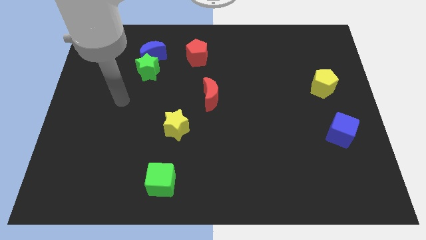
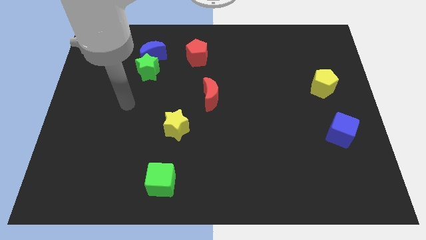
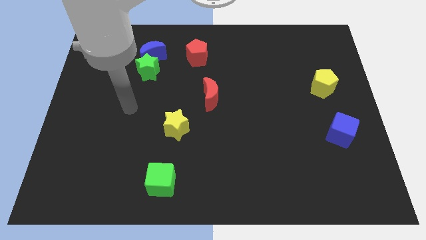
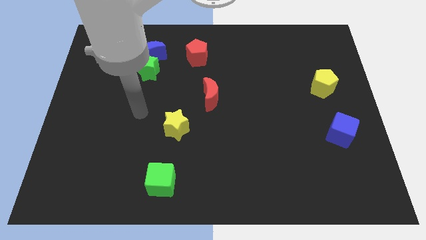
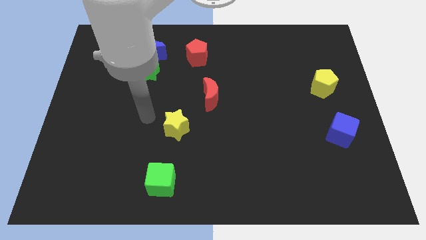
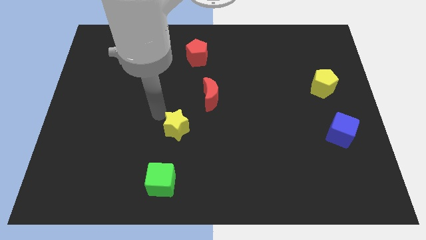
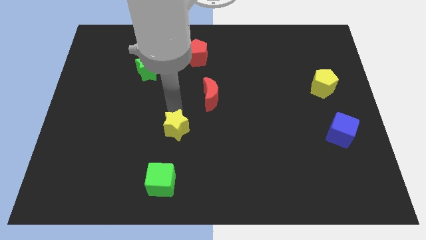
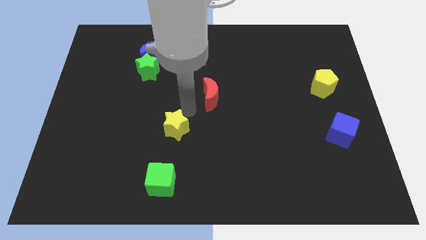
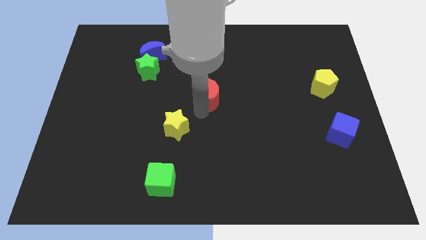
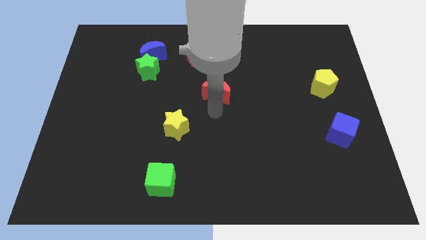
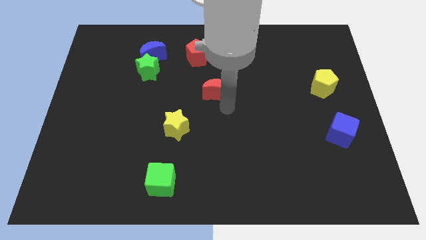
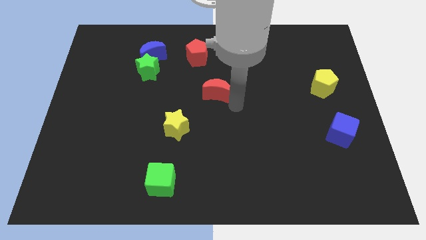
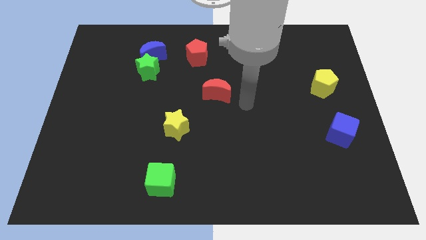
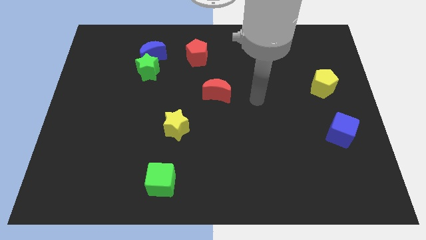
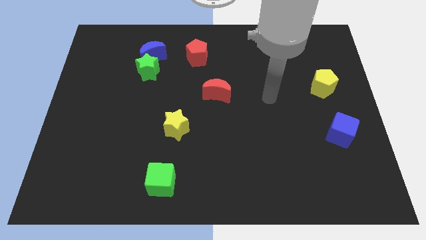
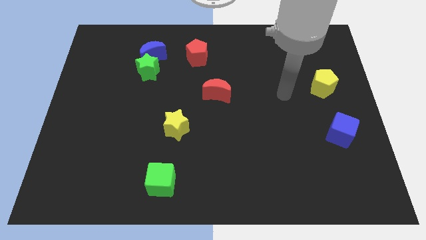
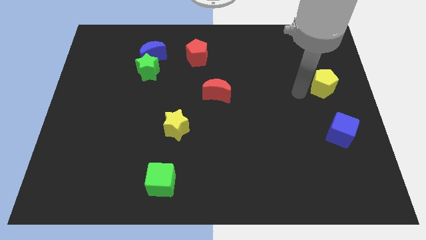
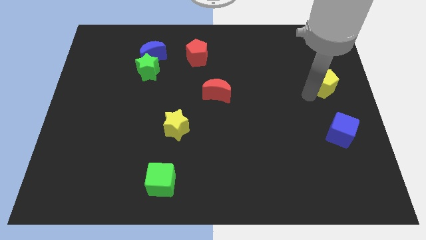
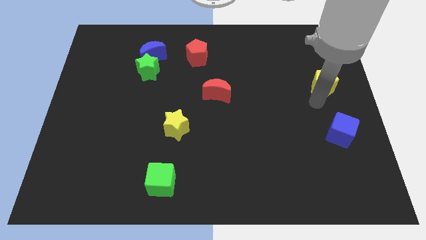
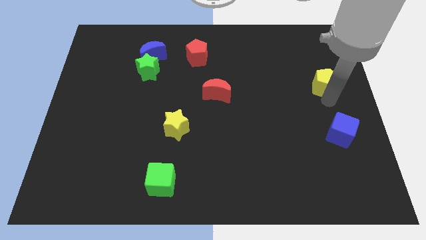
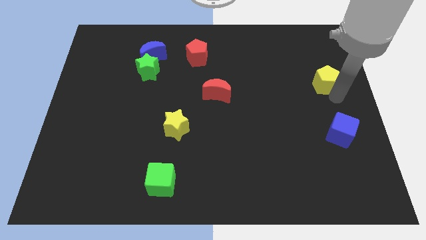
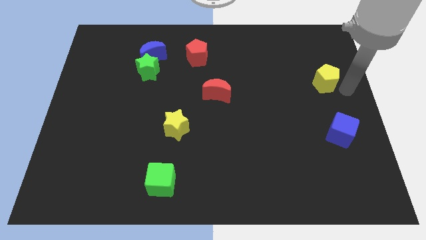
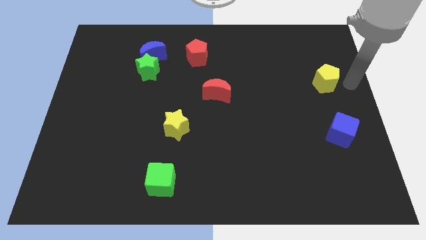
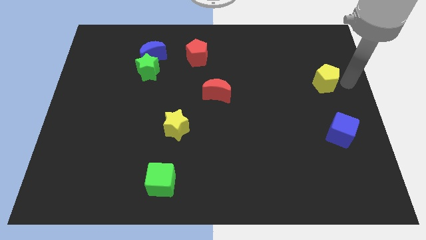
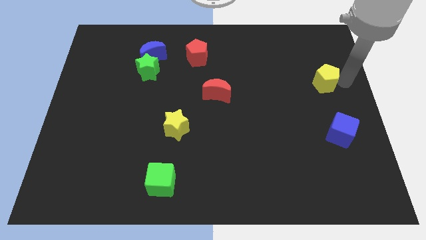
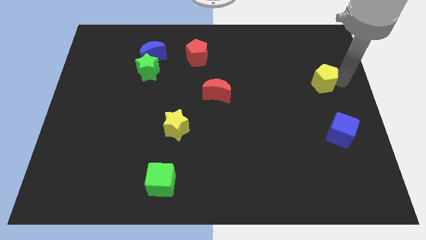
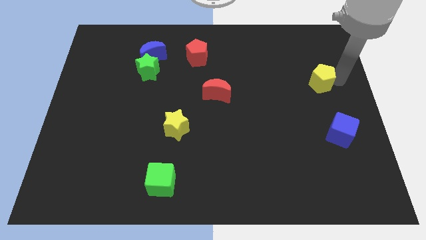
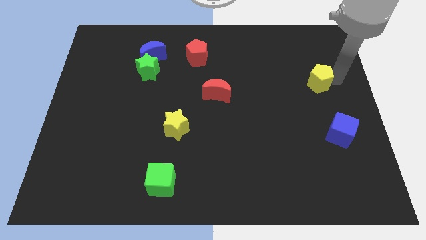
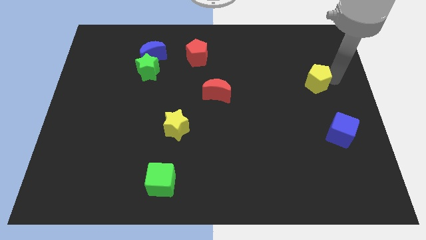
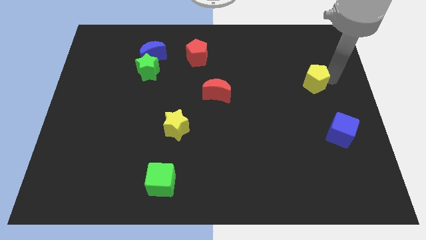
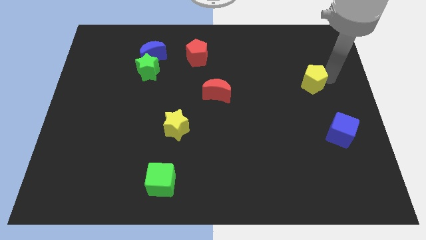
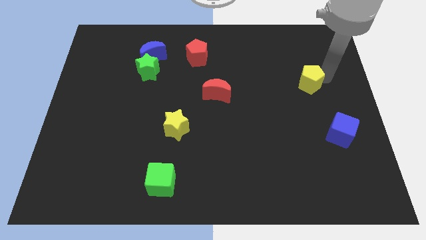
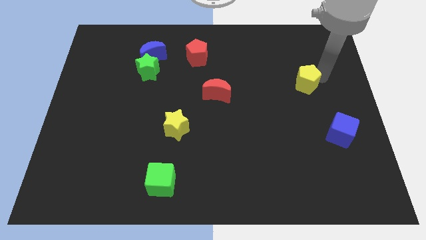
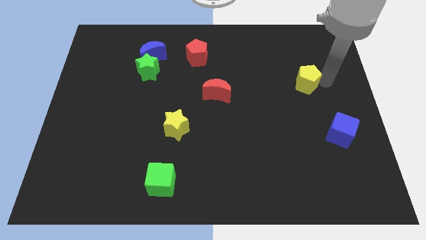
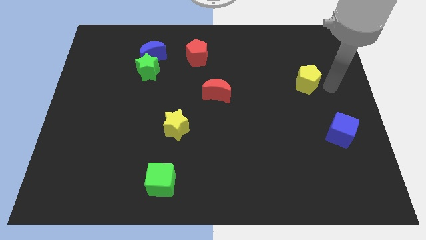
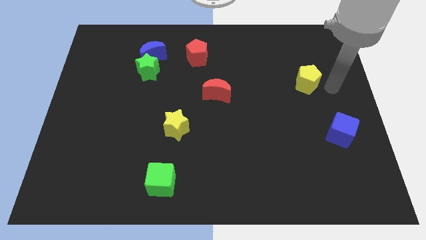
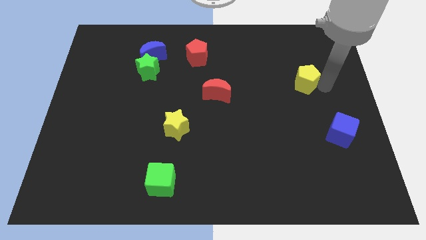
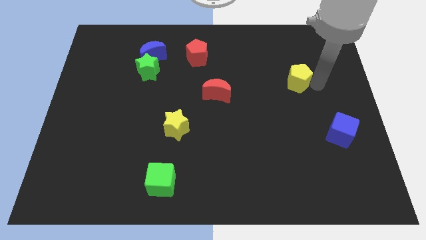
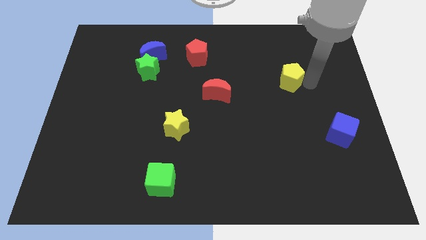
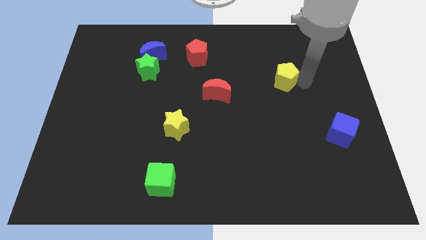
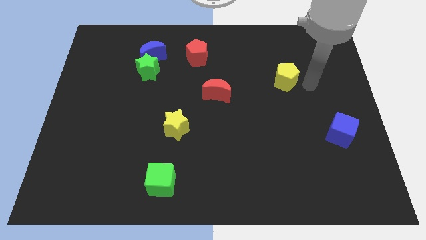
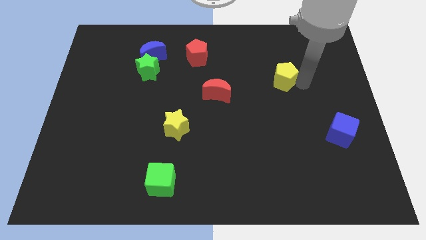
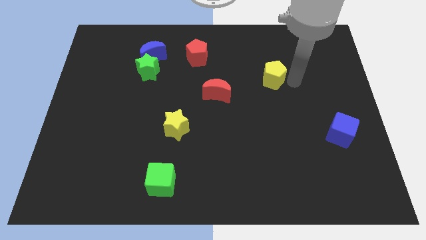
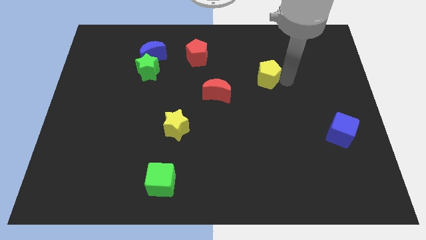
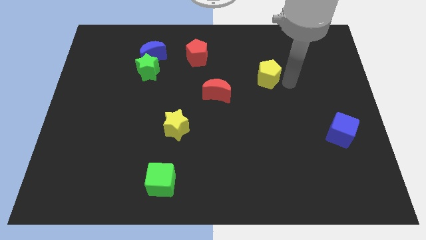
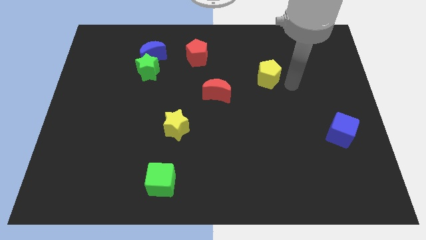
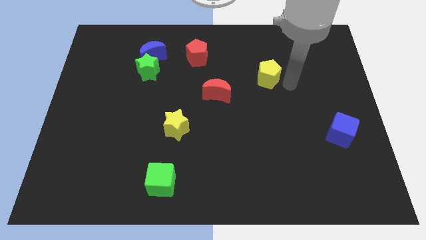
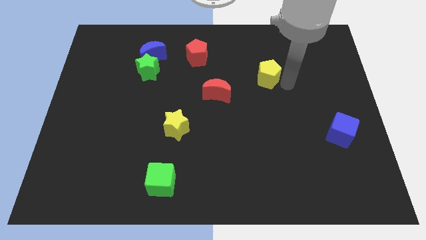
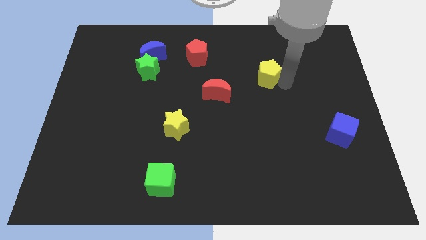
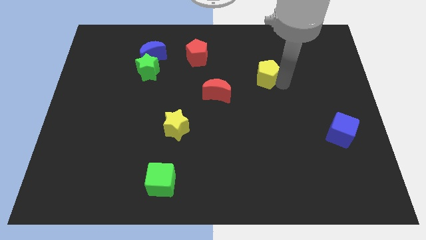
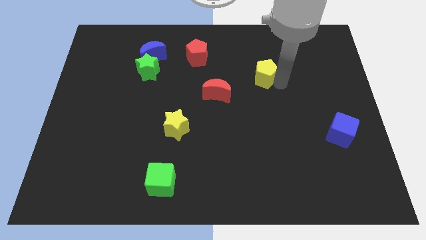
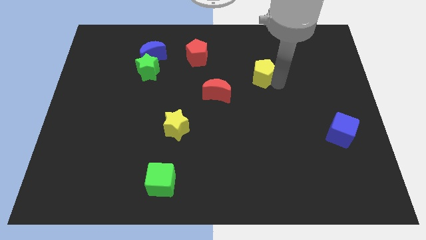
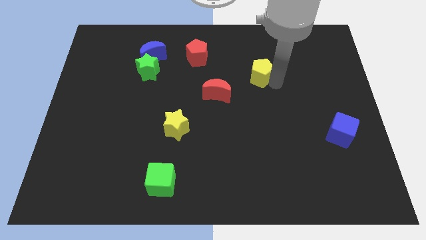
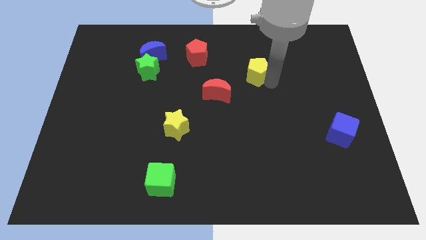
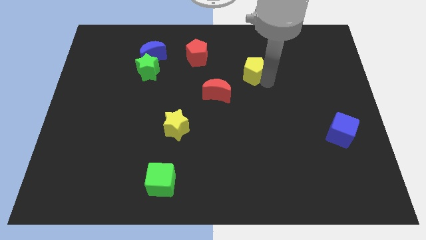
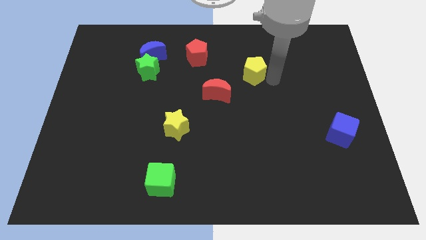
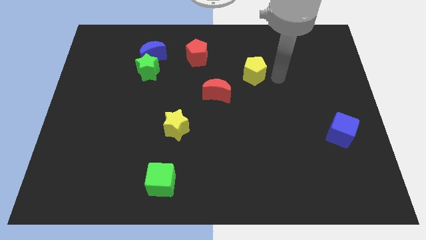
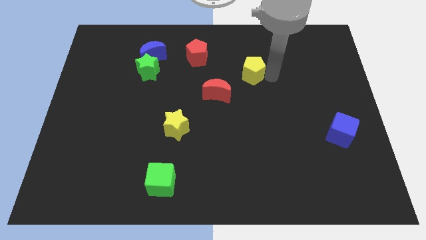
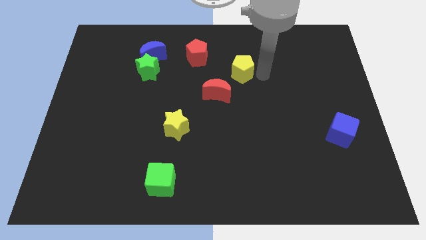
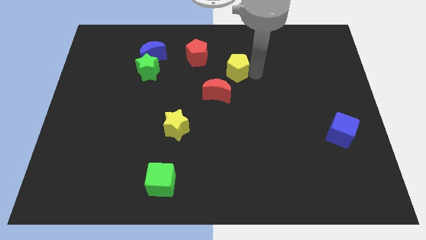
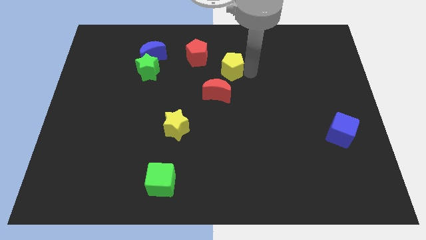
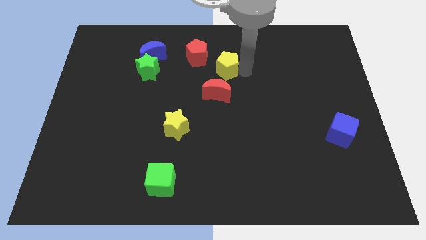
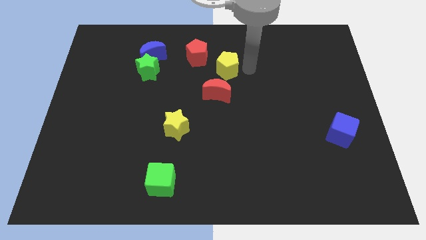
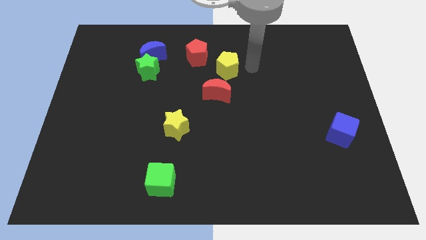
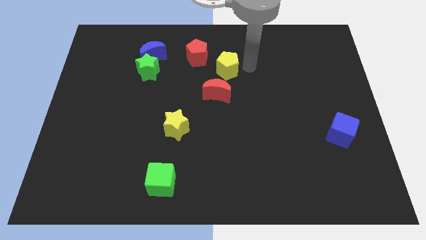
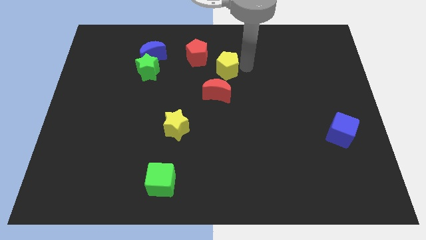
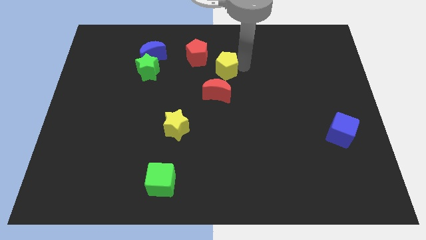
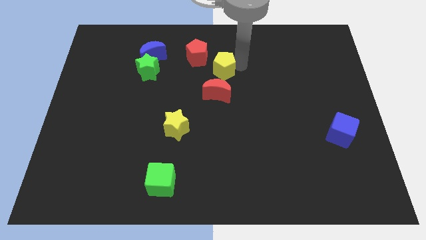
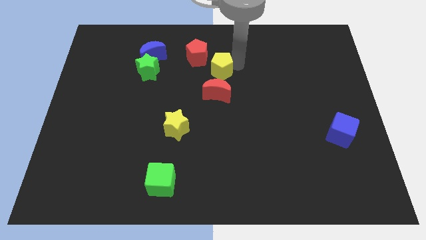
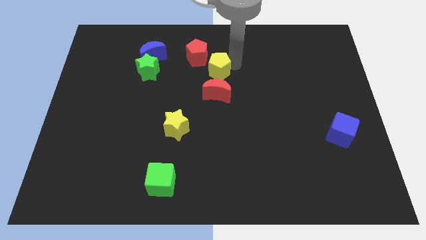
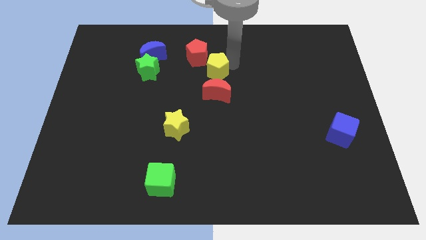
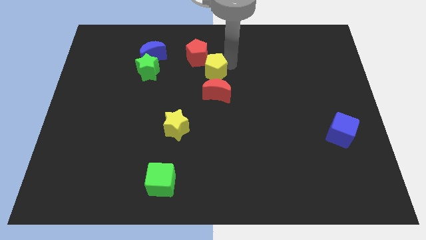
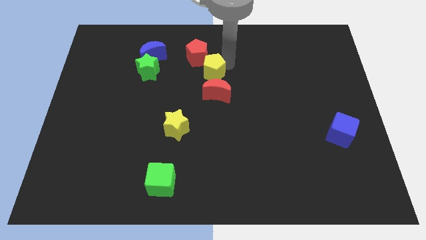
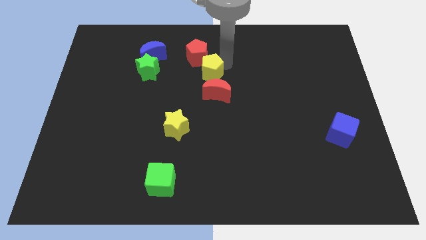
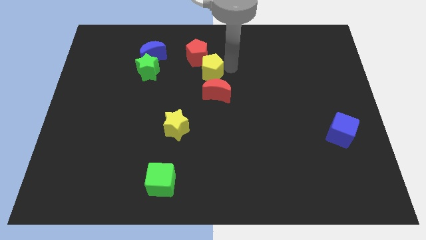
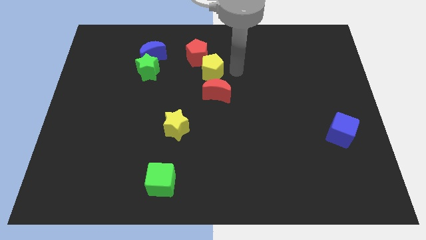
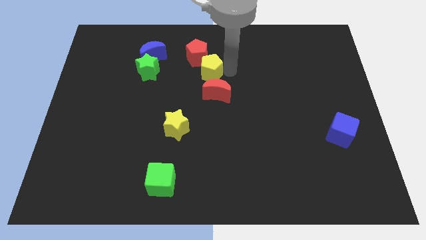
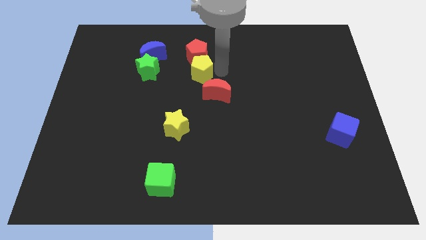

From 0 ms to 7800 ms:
move the yellow pentagon to the bottom left of the red pentagon
